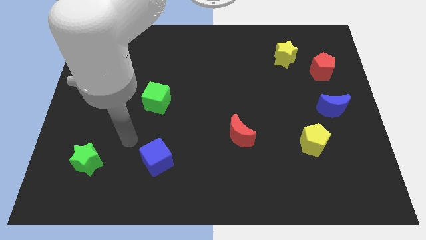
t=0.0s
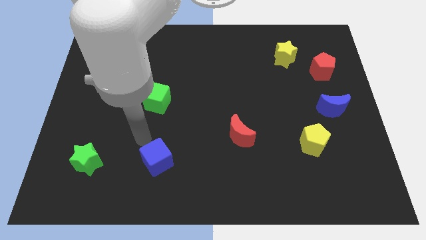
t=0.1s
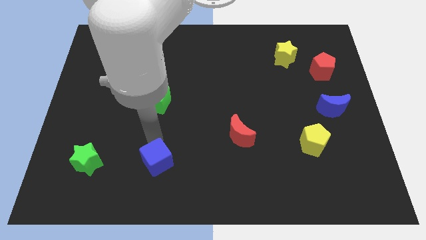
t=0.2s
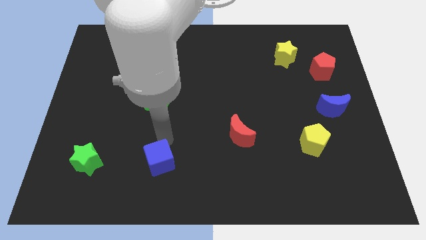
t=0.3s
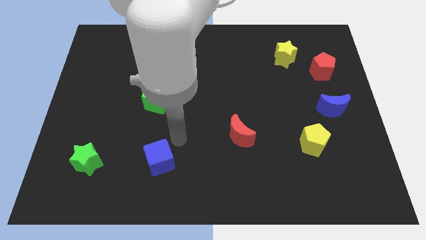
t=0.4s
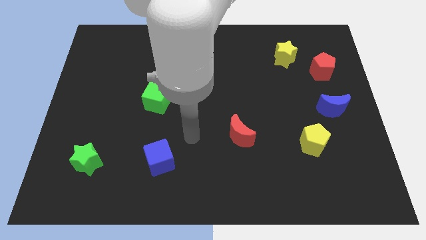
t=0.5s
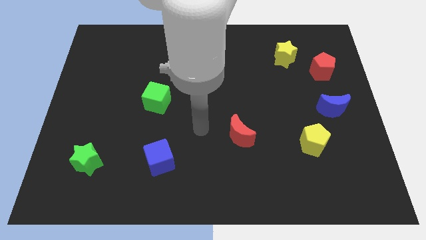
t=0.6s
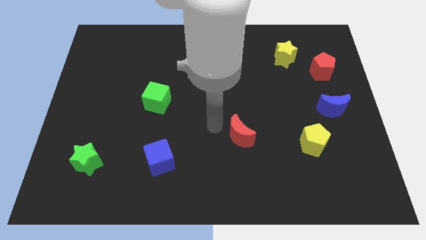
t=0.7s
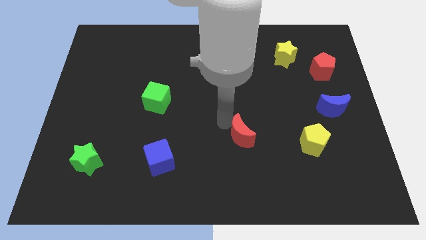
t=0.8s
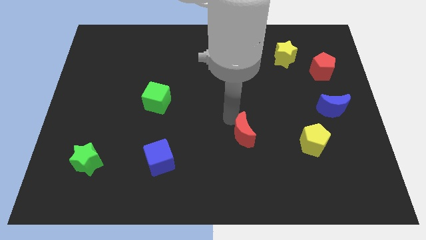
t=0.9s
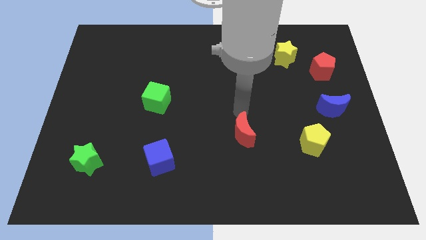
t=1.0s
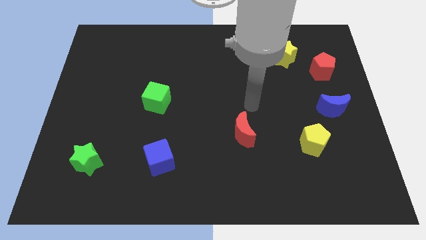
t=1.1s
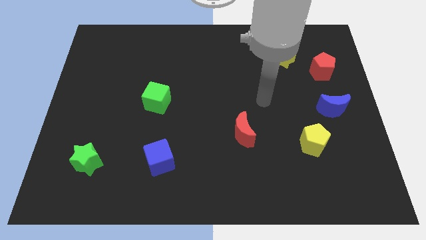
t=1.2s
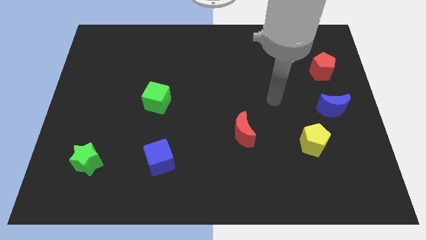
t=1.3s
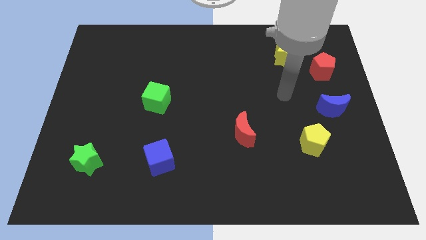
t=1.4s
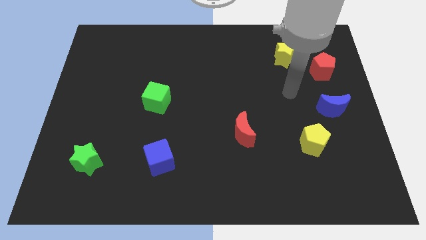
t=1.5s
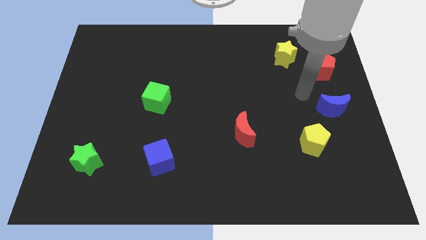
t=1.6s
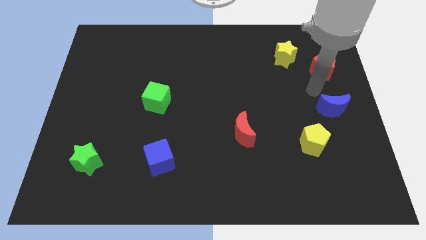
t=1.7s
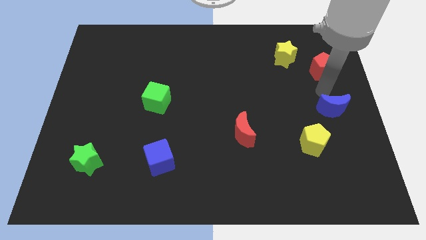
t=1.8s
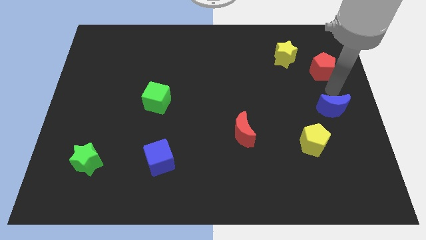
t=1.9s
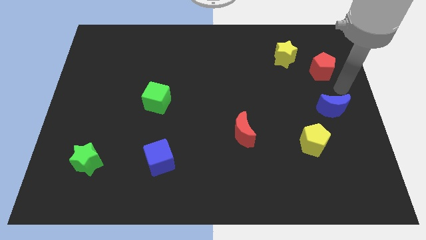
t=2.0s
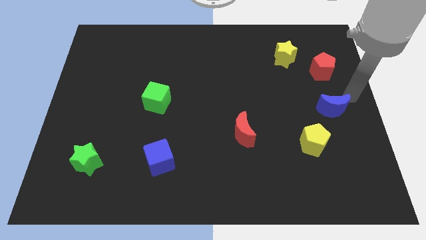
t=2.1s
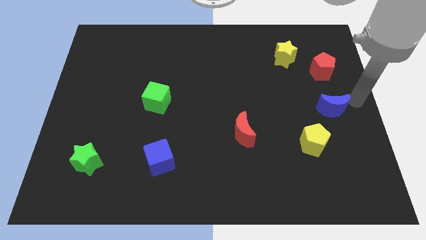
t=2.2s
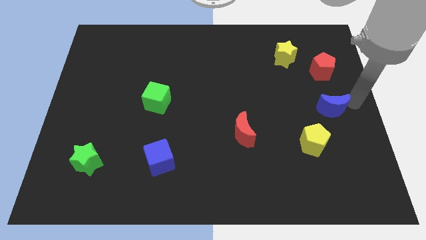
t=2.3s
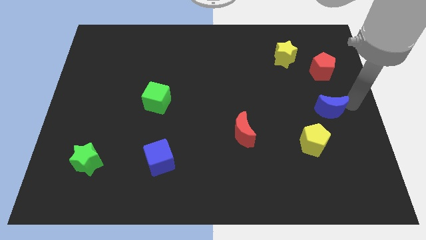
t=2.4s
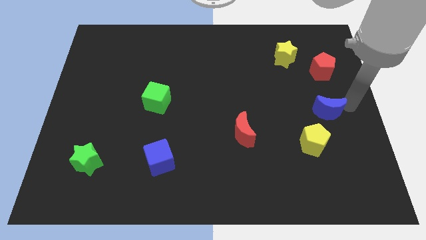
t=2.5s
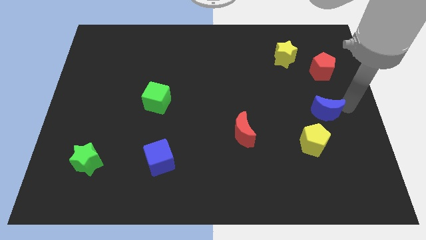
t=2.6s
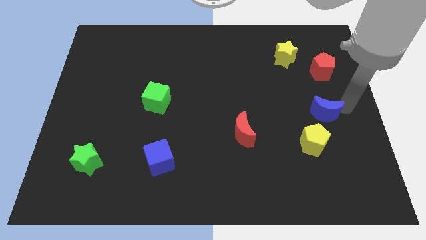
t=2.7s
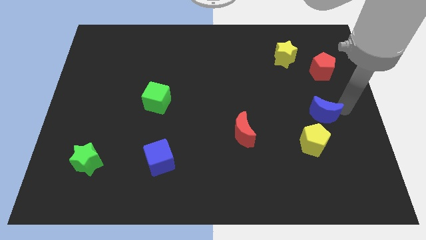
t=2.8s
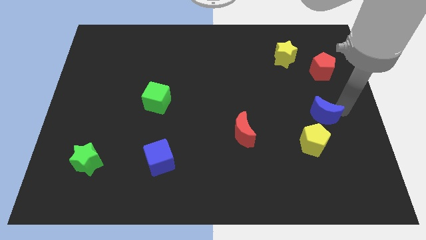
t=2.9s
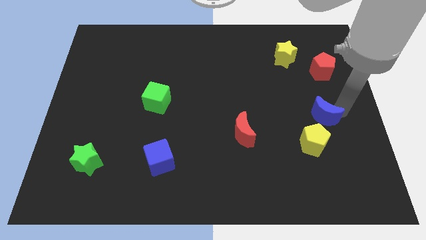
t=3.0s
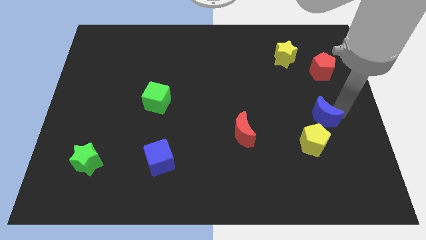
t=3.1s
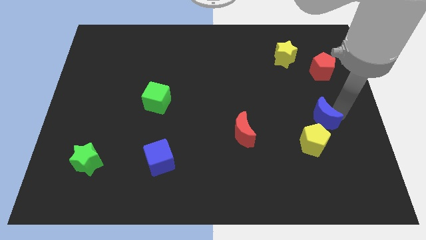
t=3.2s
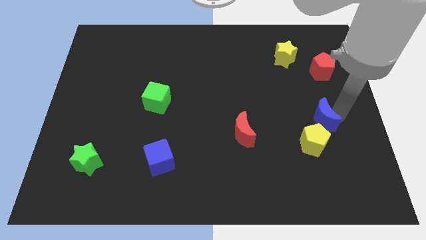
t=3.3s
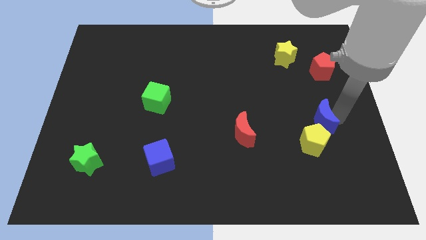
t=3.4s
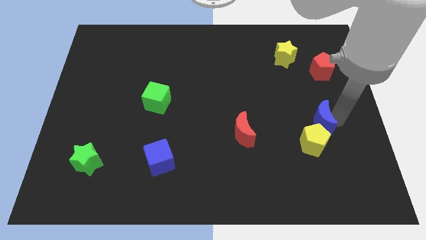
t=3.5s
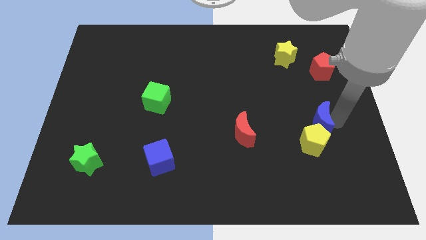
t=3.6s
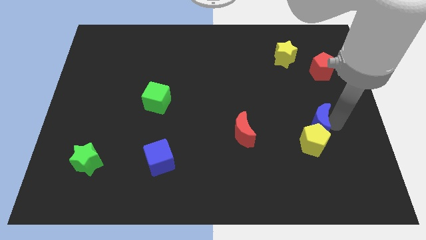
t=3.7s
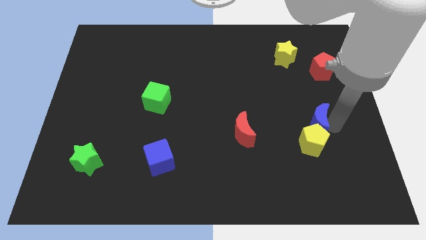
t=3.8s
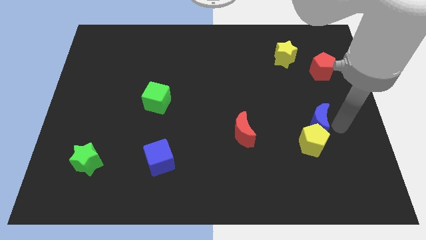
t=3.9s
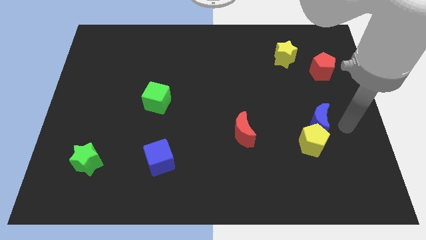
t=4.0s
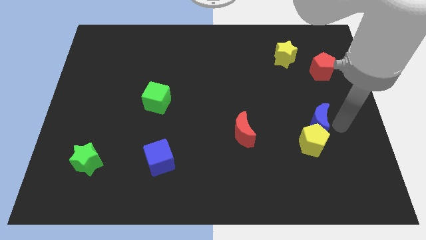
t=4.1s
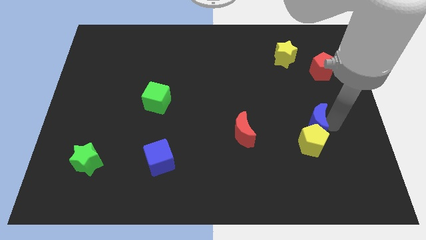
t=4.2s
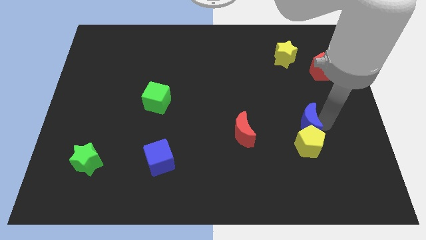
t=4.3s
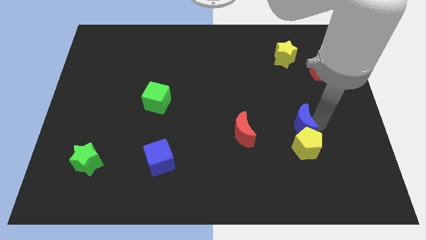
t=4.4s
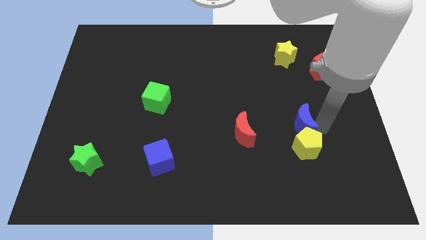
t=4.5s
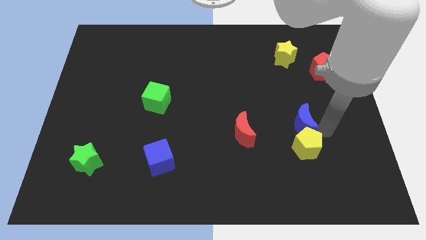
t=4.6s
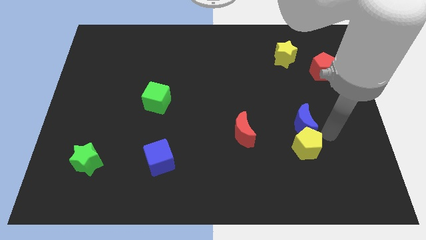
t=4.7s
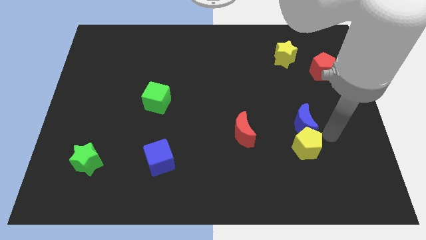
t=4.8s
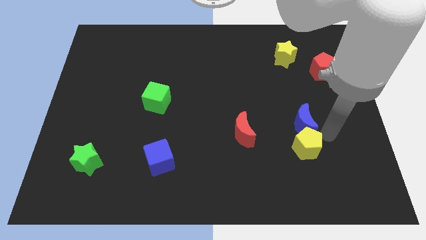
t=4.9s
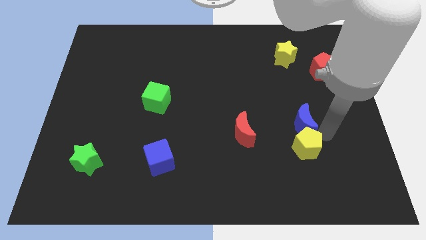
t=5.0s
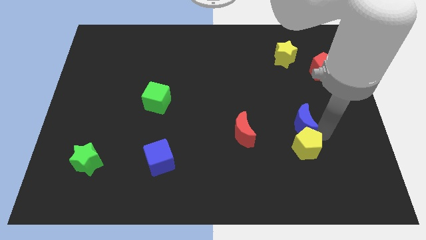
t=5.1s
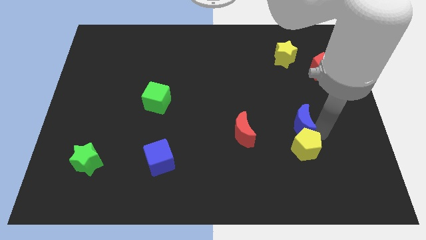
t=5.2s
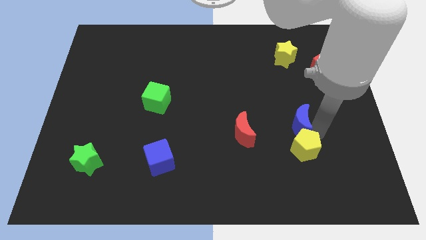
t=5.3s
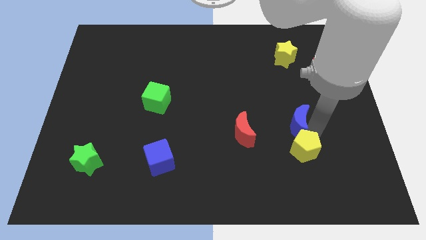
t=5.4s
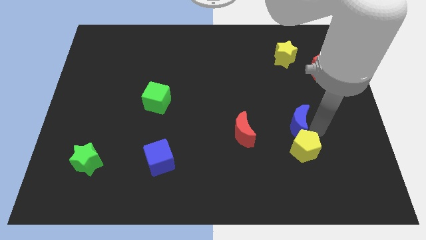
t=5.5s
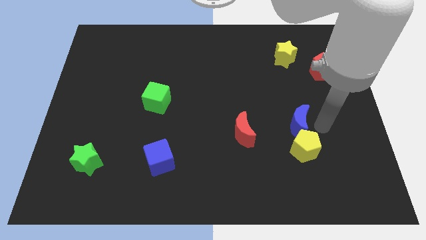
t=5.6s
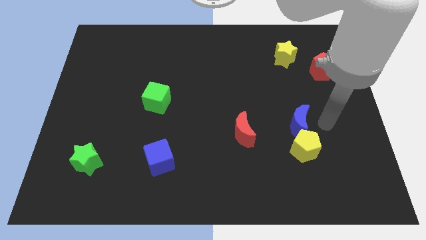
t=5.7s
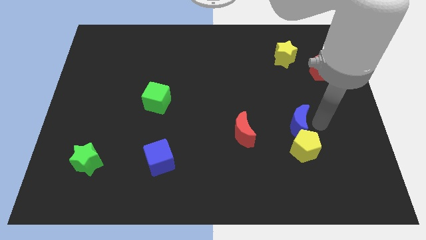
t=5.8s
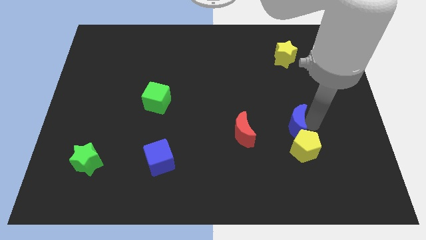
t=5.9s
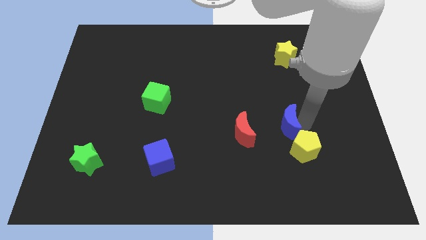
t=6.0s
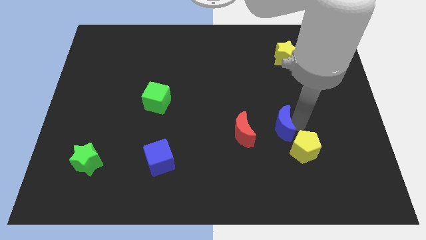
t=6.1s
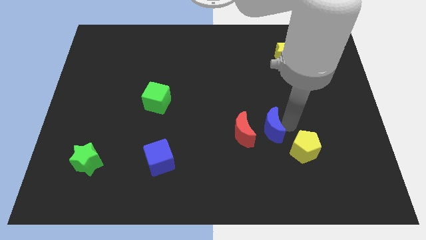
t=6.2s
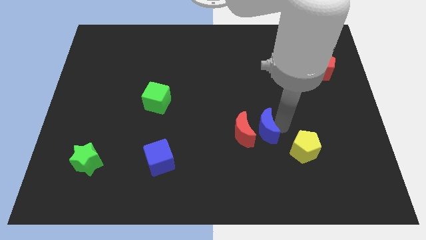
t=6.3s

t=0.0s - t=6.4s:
push the blue moon close to the red moon

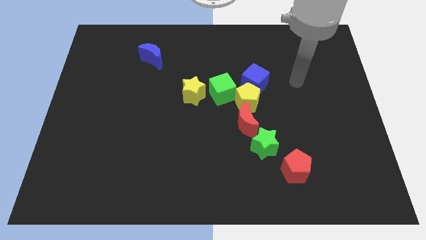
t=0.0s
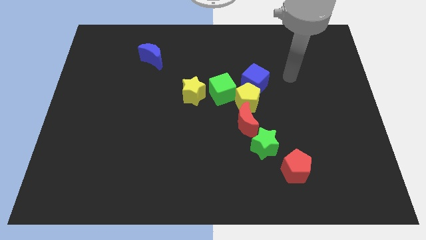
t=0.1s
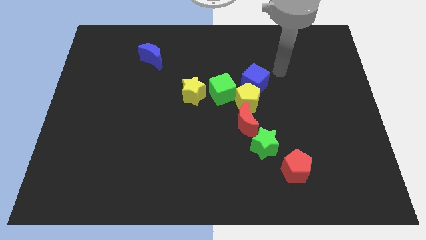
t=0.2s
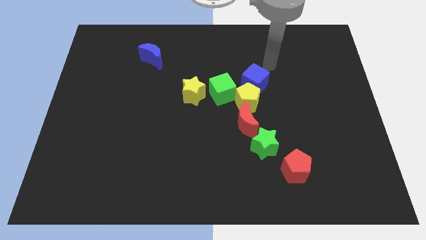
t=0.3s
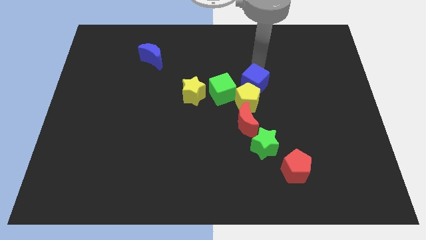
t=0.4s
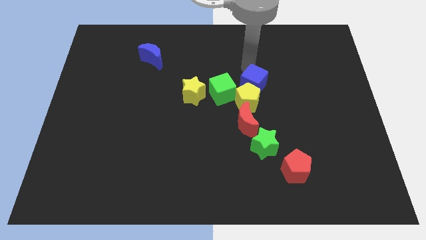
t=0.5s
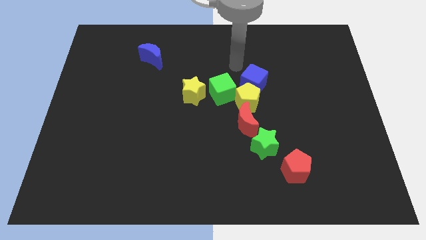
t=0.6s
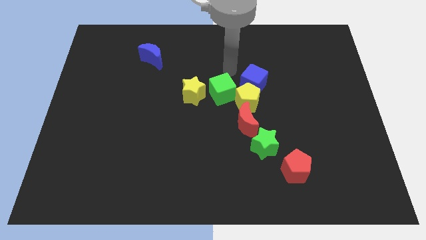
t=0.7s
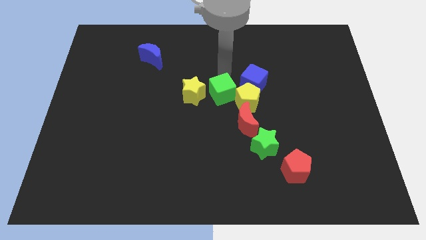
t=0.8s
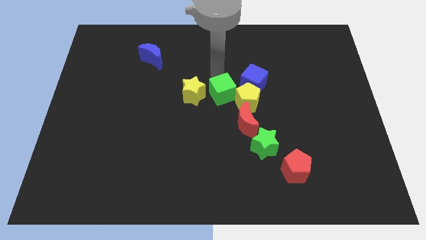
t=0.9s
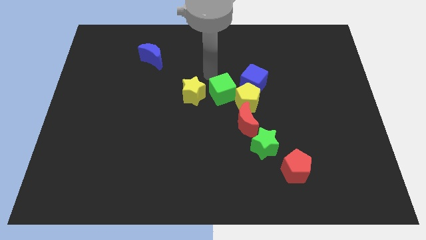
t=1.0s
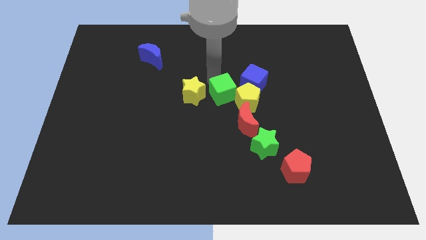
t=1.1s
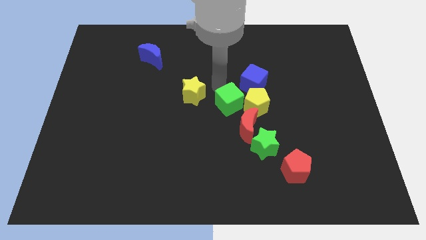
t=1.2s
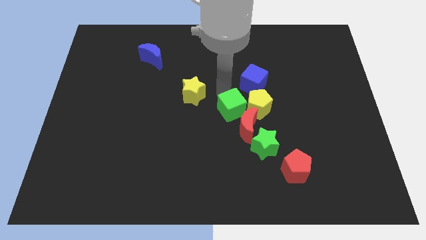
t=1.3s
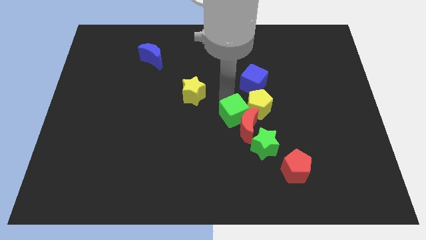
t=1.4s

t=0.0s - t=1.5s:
move the green cube close to the red moon
